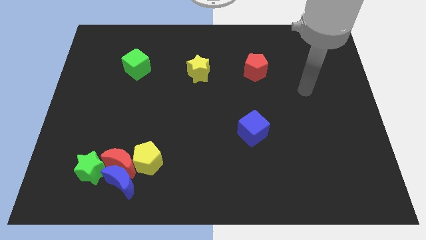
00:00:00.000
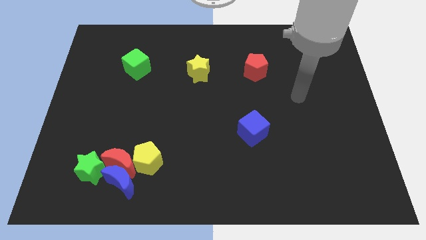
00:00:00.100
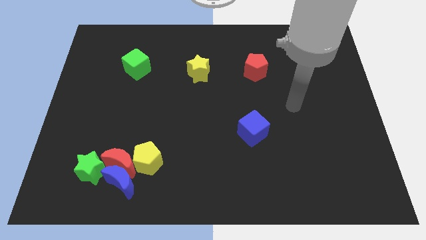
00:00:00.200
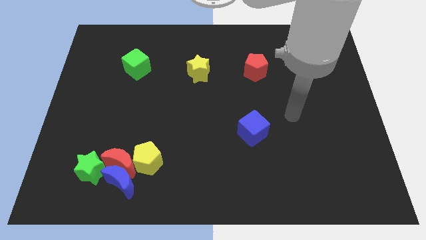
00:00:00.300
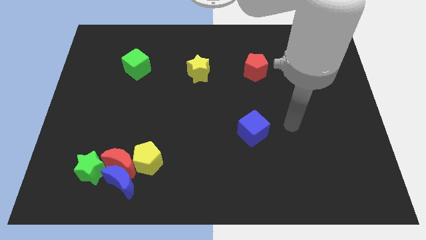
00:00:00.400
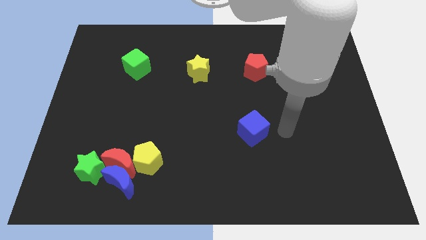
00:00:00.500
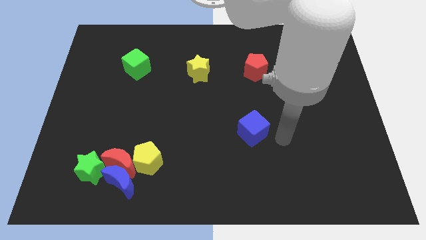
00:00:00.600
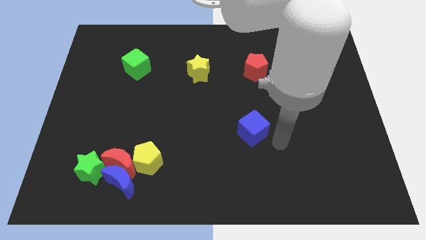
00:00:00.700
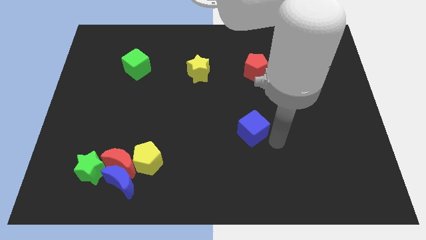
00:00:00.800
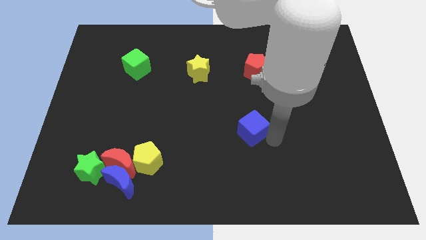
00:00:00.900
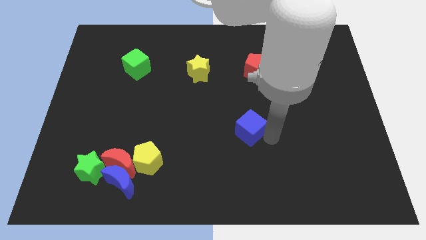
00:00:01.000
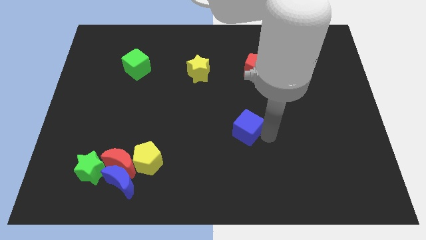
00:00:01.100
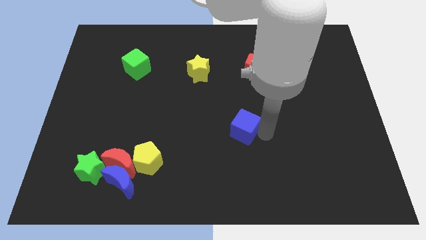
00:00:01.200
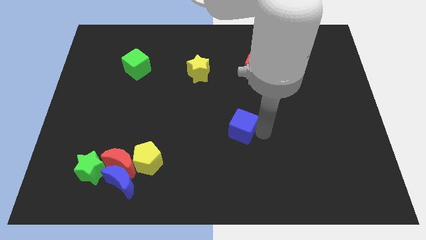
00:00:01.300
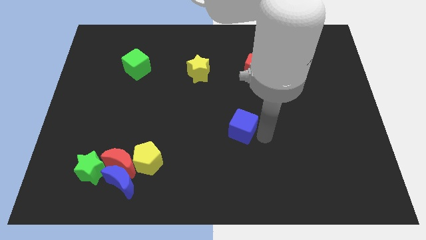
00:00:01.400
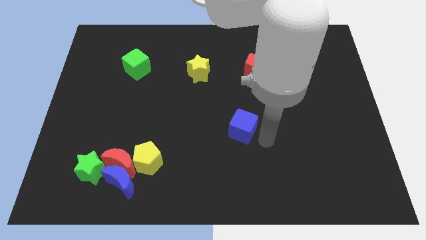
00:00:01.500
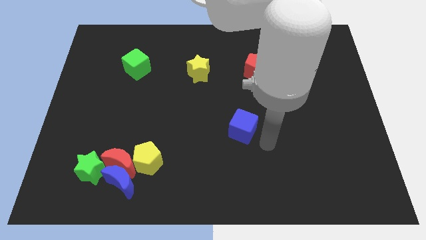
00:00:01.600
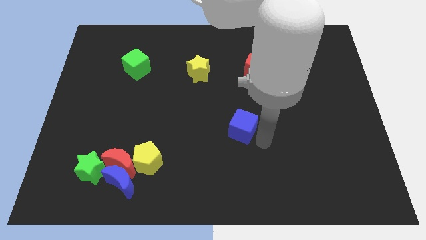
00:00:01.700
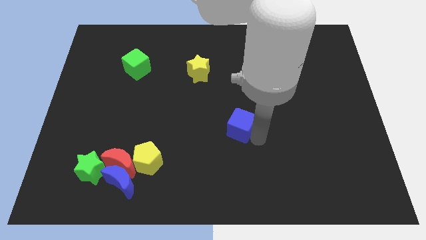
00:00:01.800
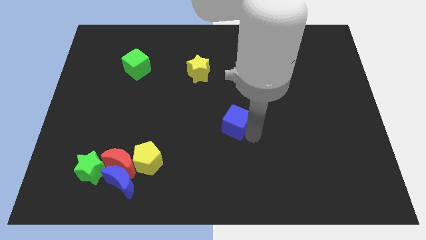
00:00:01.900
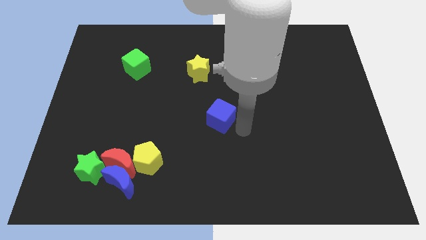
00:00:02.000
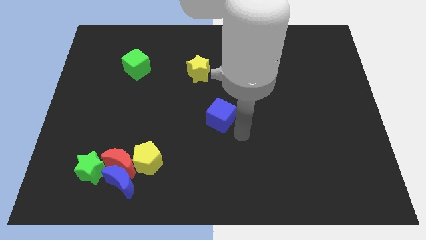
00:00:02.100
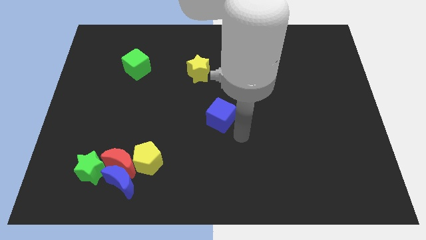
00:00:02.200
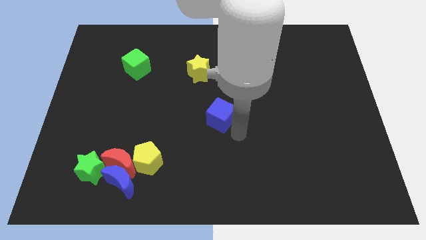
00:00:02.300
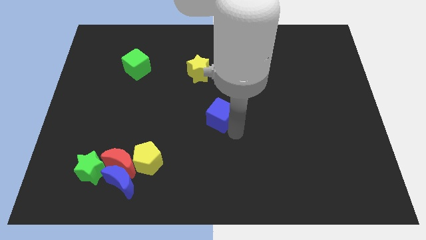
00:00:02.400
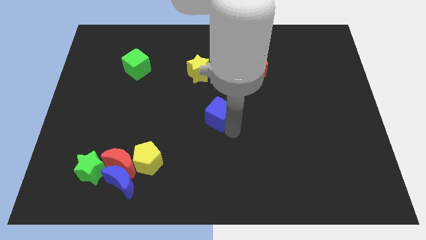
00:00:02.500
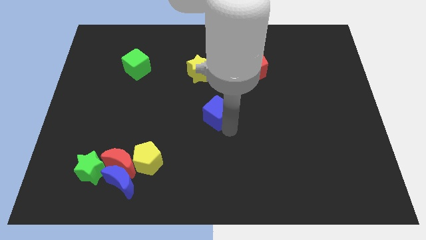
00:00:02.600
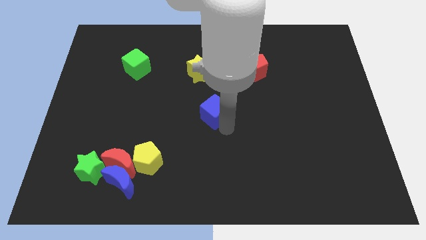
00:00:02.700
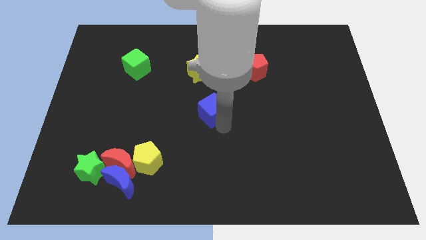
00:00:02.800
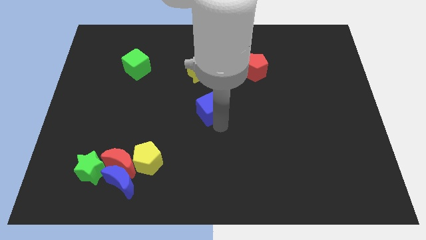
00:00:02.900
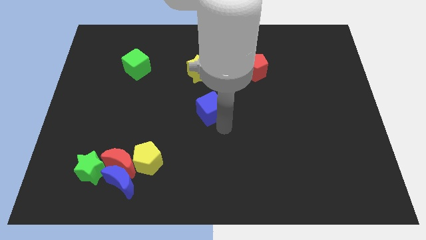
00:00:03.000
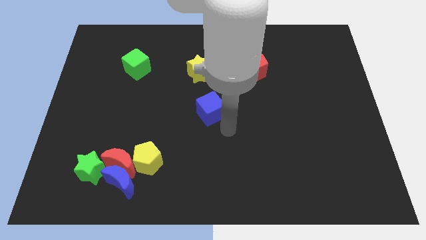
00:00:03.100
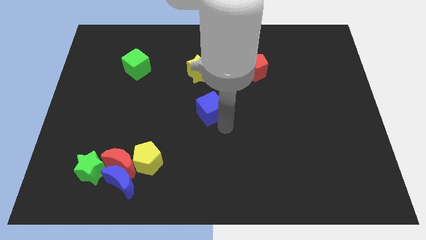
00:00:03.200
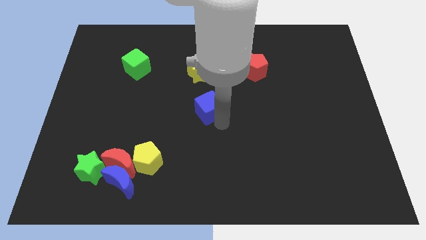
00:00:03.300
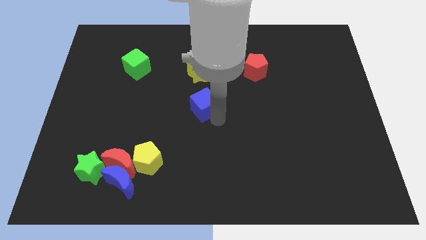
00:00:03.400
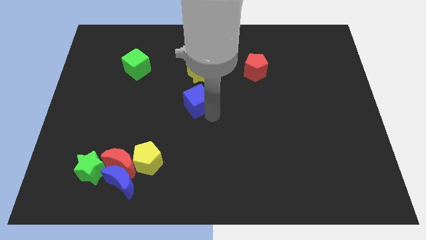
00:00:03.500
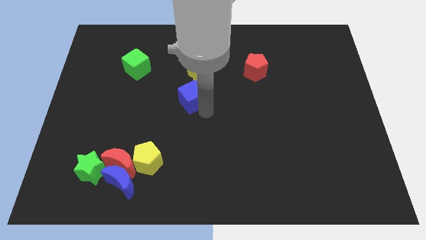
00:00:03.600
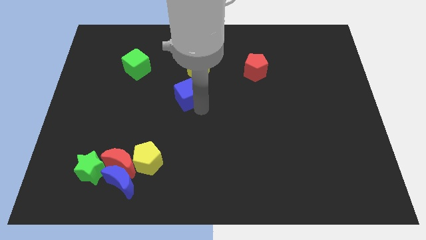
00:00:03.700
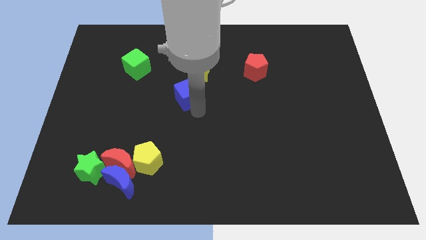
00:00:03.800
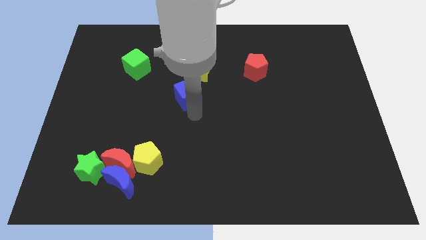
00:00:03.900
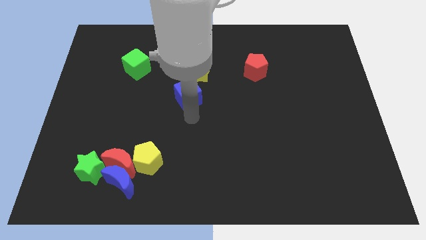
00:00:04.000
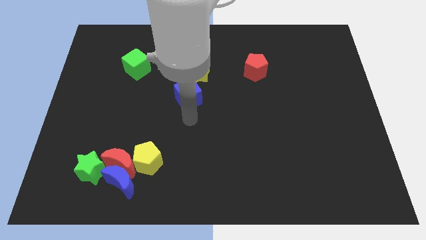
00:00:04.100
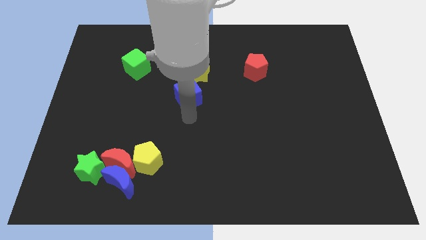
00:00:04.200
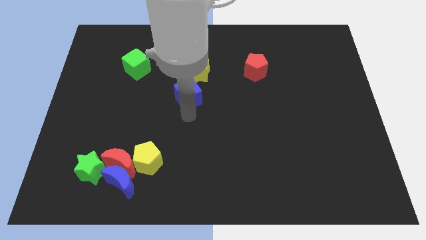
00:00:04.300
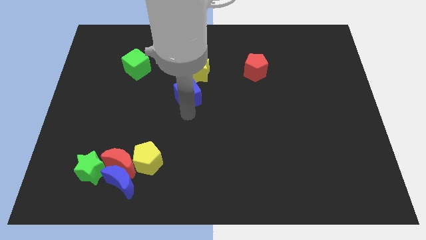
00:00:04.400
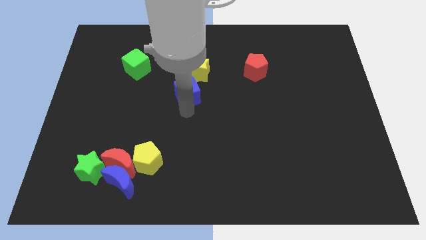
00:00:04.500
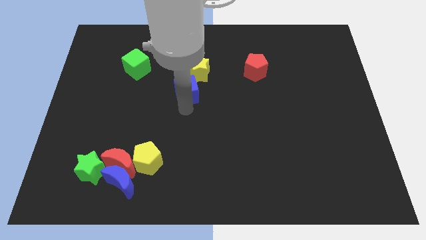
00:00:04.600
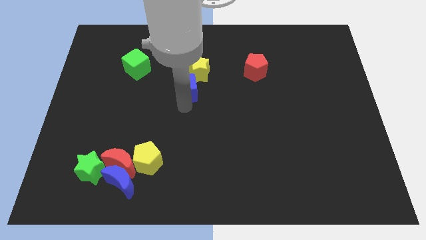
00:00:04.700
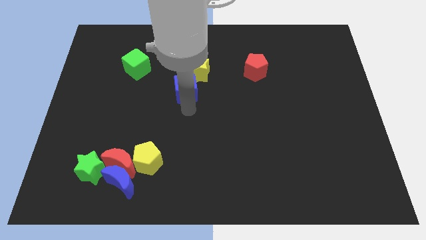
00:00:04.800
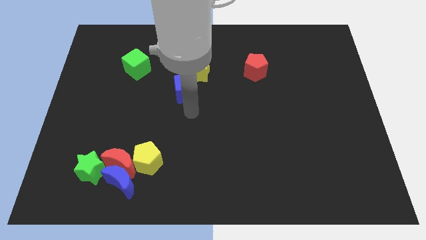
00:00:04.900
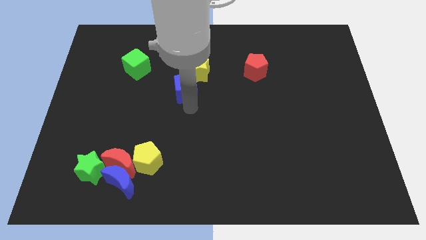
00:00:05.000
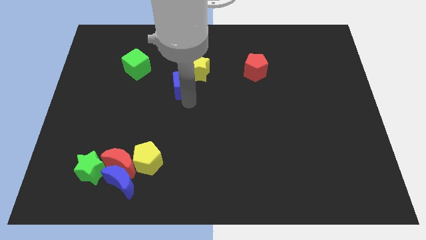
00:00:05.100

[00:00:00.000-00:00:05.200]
push the blue cube upwards and then to the left

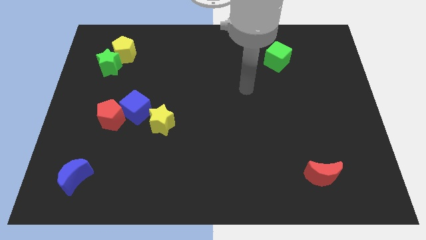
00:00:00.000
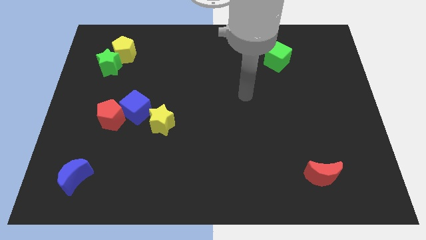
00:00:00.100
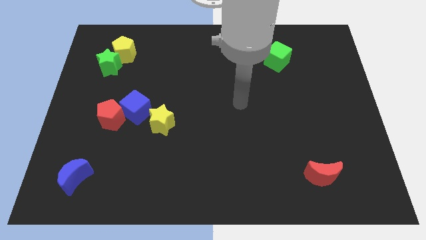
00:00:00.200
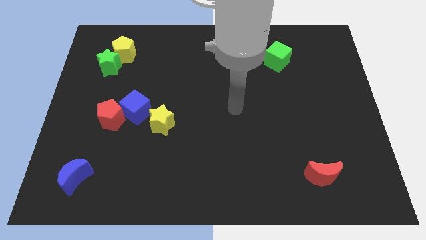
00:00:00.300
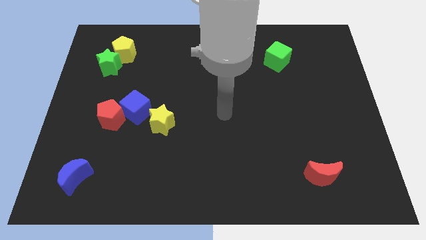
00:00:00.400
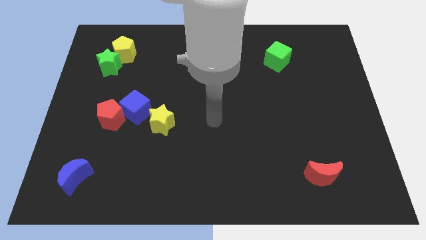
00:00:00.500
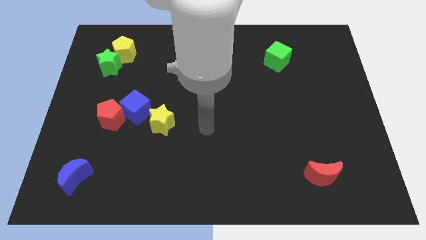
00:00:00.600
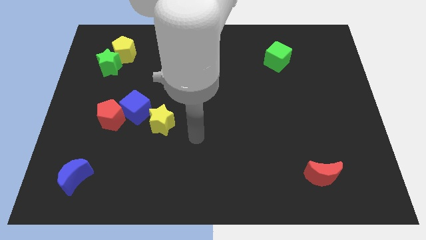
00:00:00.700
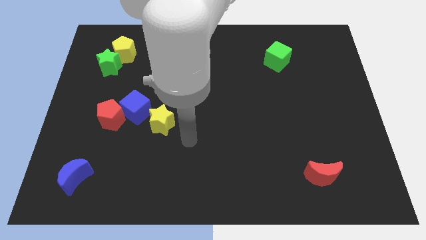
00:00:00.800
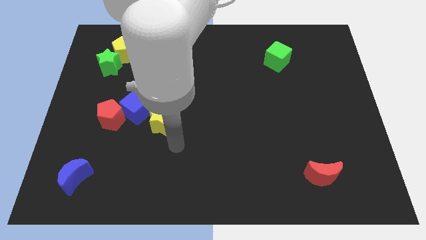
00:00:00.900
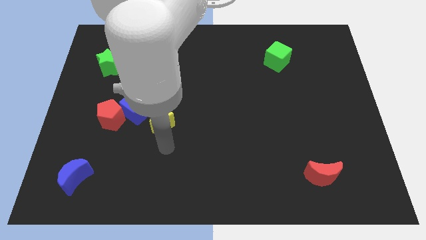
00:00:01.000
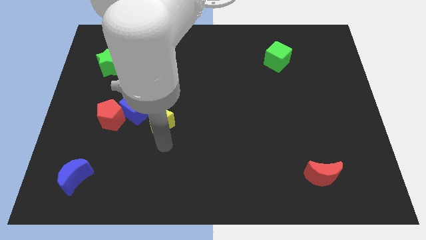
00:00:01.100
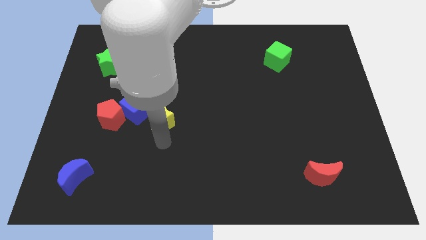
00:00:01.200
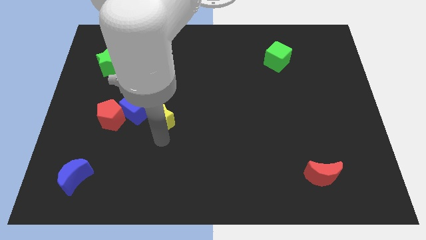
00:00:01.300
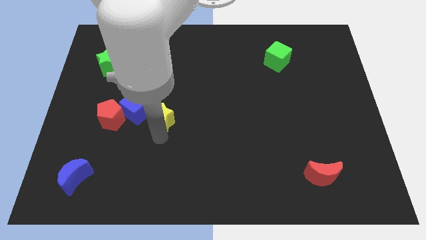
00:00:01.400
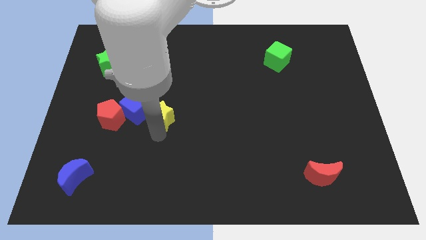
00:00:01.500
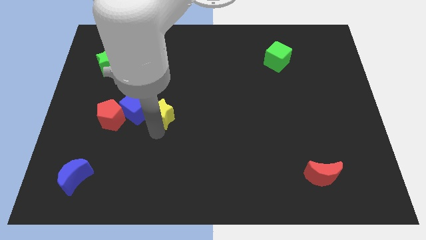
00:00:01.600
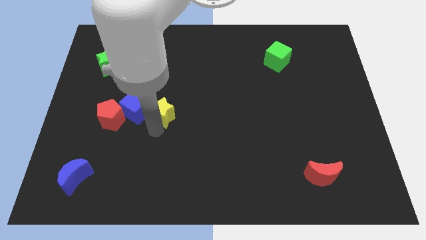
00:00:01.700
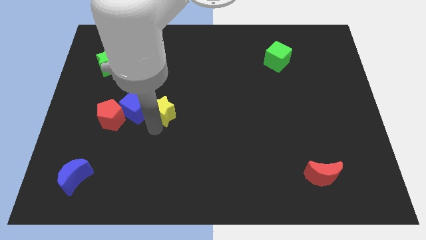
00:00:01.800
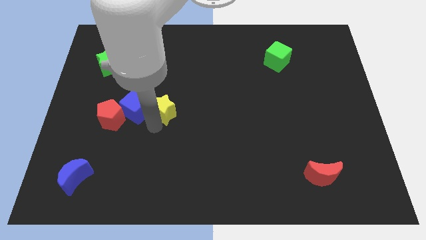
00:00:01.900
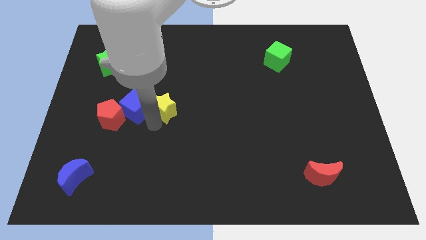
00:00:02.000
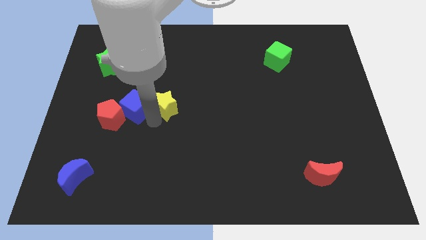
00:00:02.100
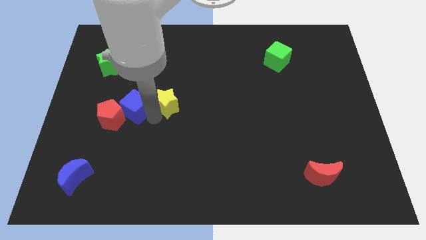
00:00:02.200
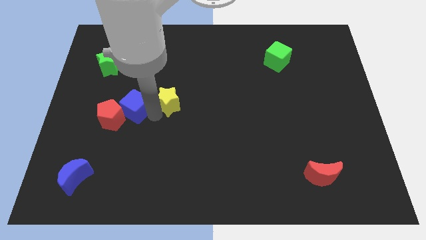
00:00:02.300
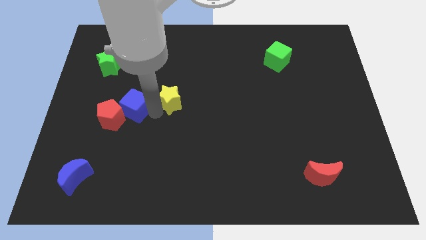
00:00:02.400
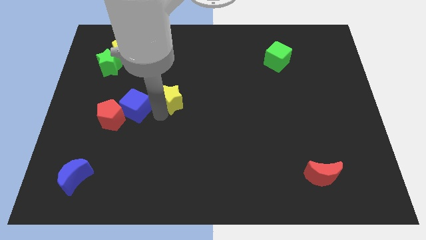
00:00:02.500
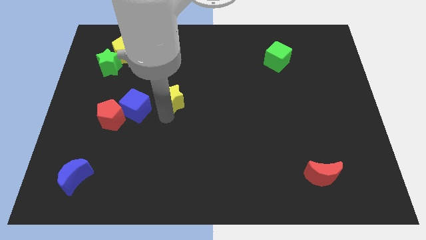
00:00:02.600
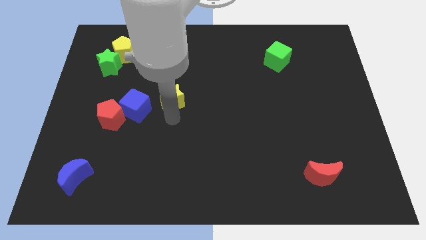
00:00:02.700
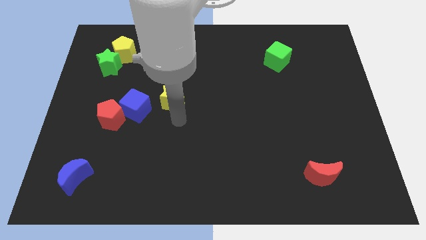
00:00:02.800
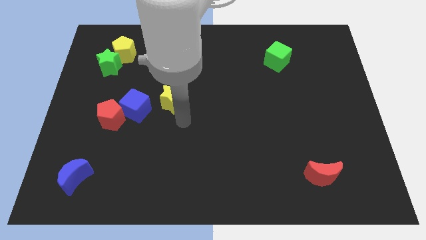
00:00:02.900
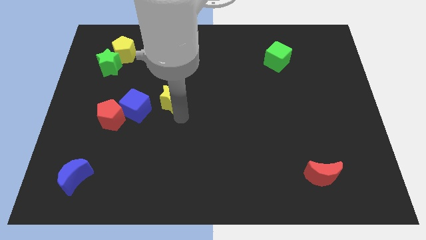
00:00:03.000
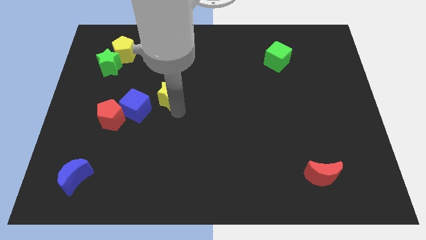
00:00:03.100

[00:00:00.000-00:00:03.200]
slightly slide the yellow star up
